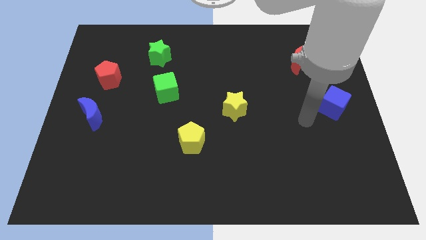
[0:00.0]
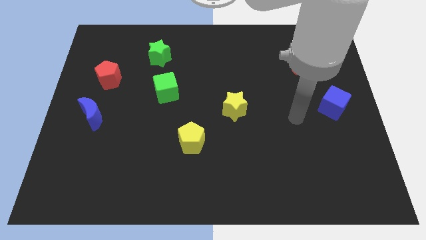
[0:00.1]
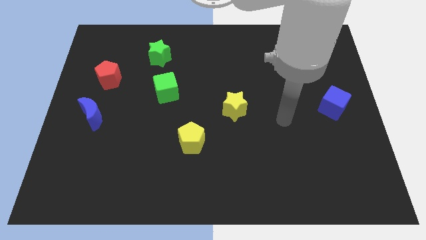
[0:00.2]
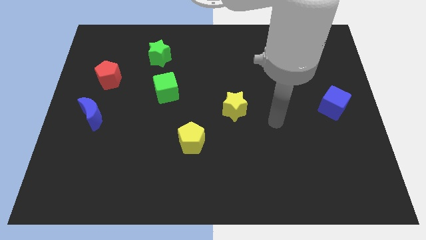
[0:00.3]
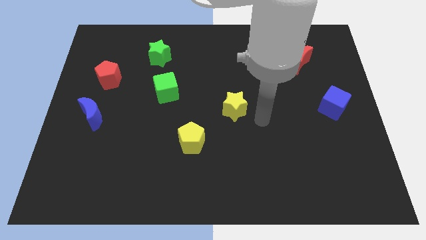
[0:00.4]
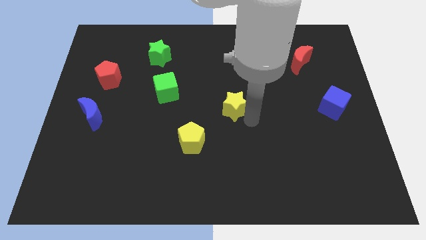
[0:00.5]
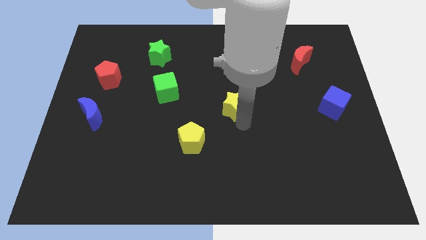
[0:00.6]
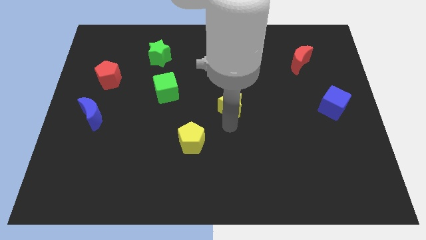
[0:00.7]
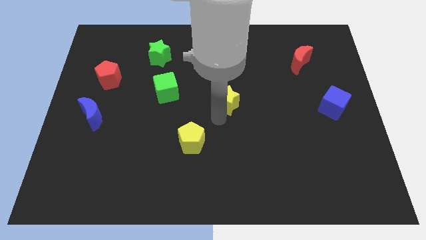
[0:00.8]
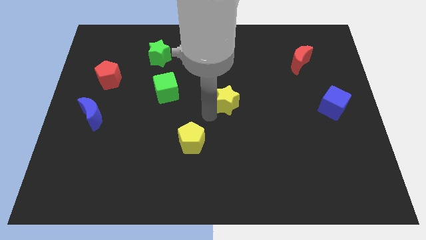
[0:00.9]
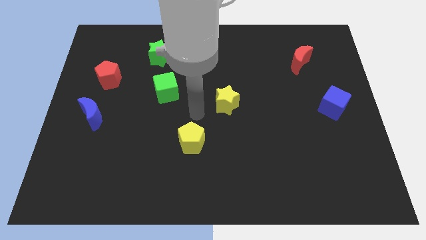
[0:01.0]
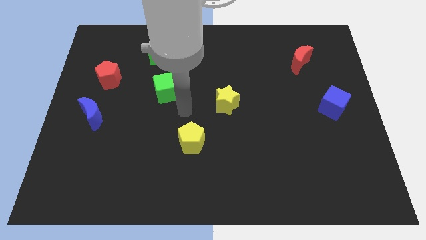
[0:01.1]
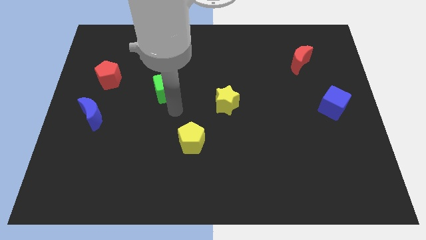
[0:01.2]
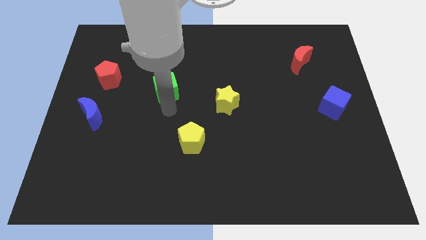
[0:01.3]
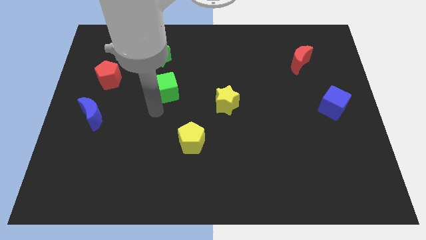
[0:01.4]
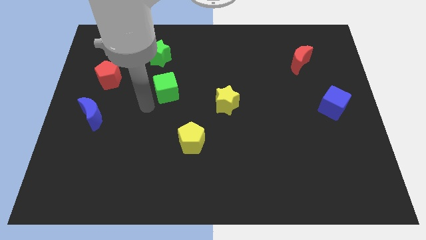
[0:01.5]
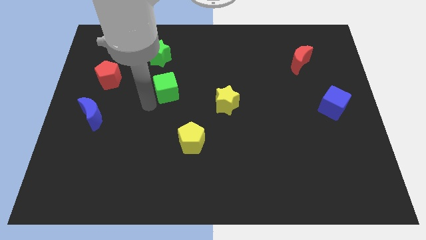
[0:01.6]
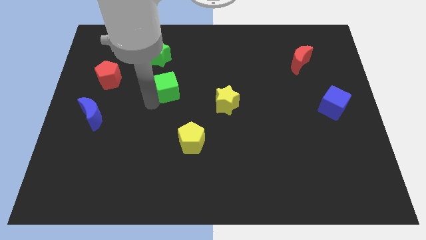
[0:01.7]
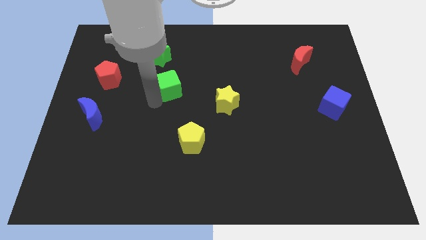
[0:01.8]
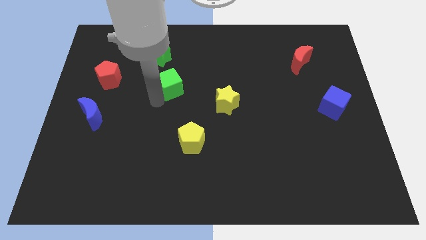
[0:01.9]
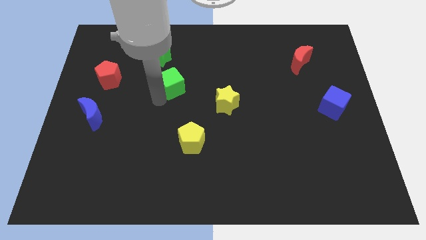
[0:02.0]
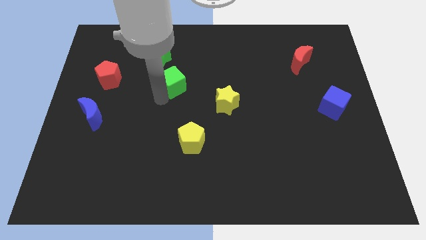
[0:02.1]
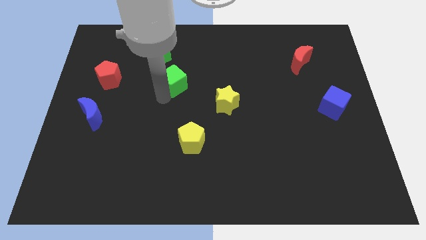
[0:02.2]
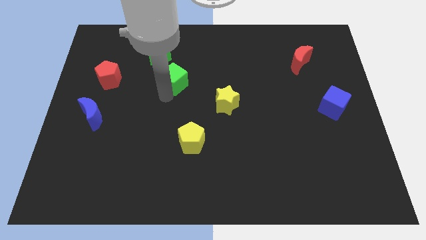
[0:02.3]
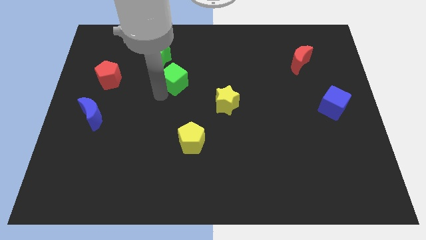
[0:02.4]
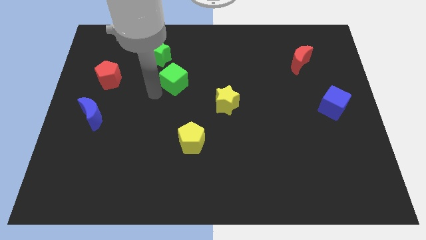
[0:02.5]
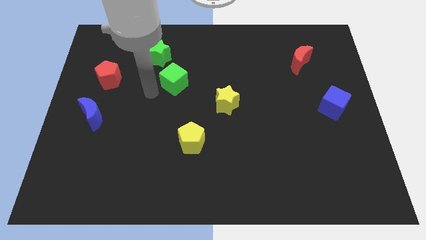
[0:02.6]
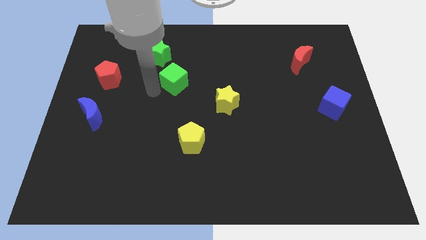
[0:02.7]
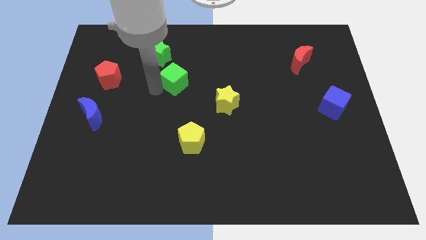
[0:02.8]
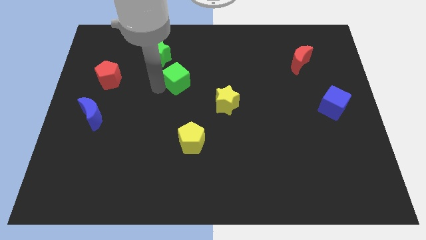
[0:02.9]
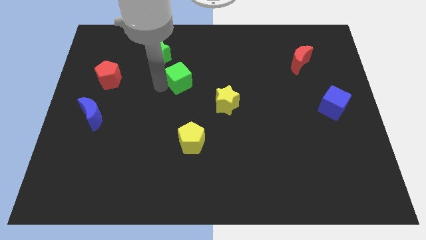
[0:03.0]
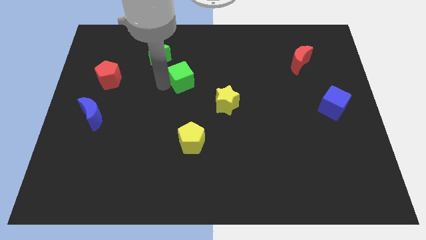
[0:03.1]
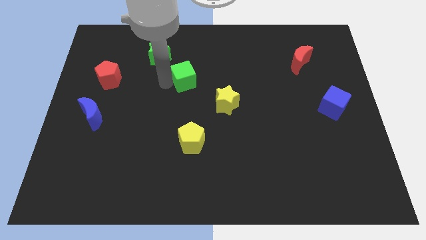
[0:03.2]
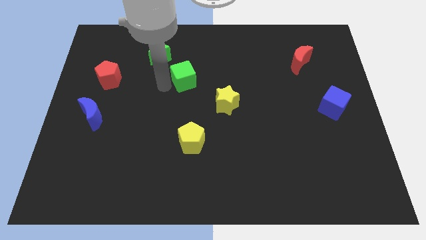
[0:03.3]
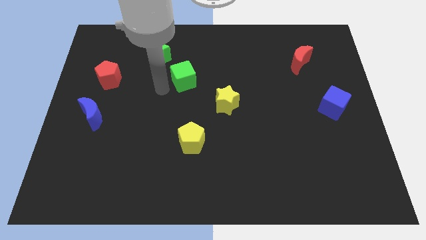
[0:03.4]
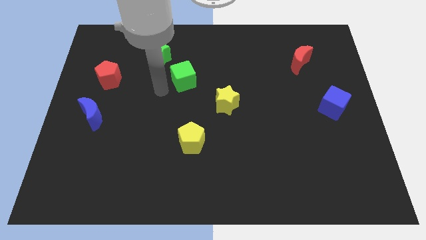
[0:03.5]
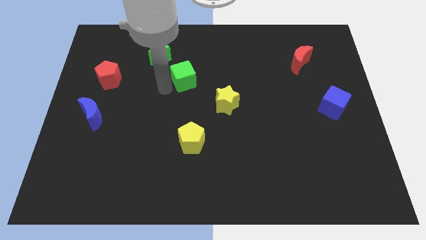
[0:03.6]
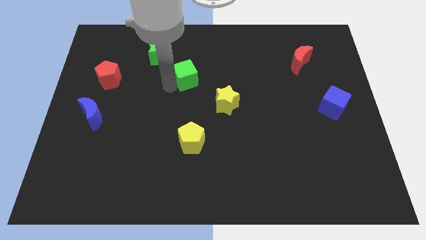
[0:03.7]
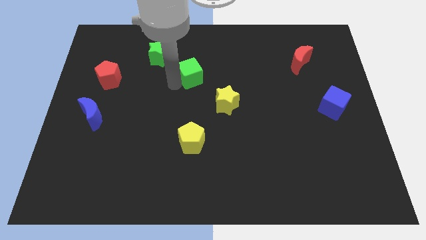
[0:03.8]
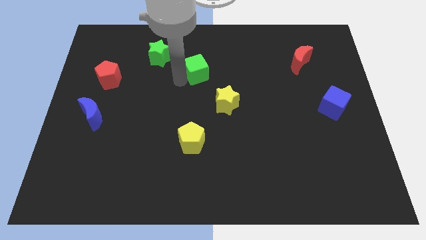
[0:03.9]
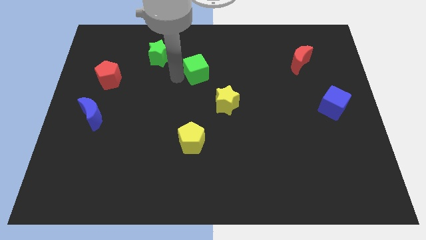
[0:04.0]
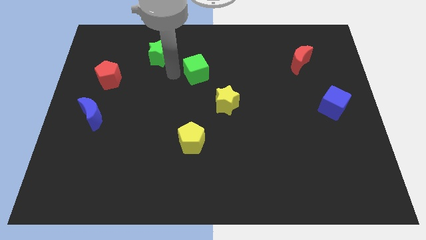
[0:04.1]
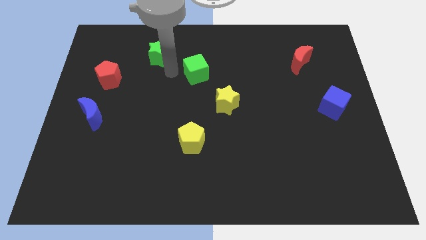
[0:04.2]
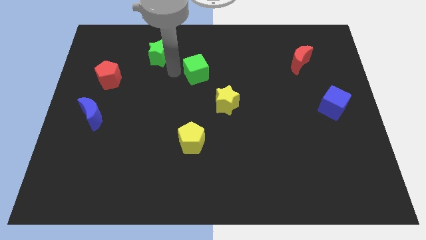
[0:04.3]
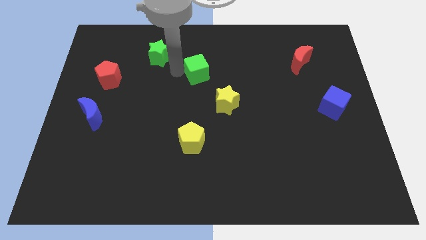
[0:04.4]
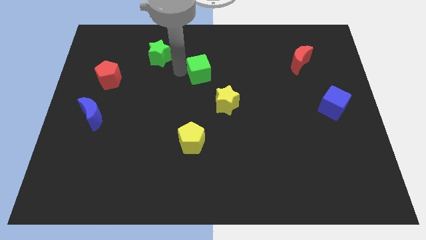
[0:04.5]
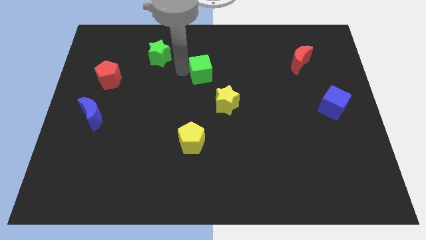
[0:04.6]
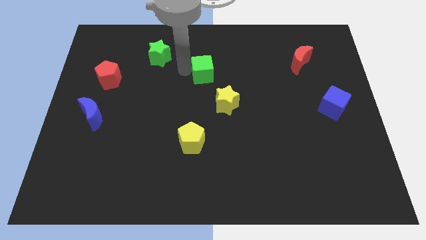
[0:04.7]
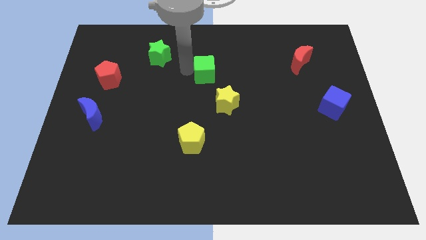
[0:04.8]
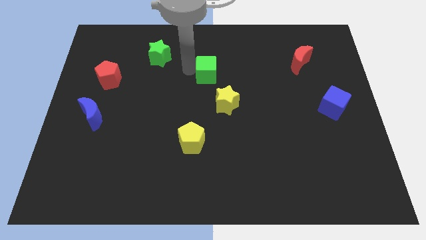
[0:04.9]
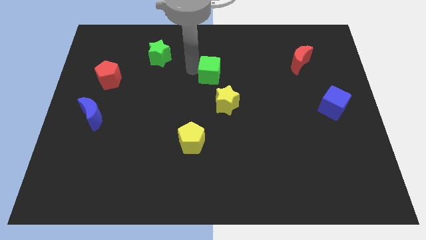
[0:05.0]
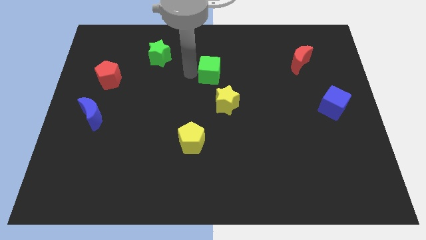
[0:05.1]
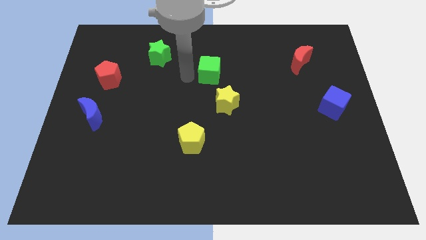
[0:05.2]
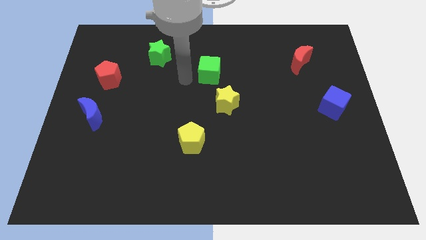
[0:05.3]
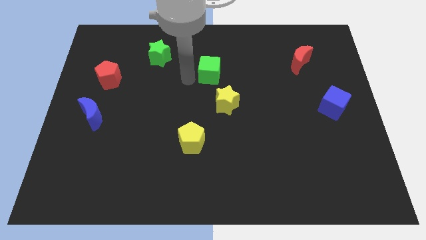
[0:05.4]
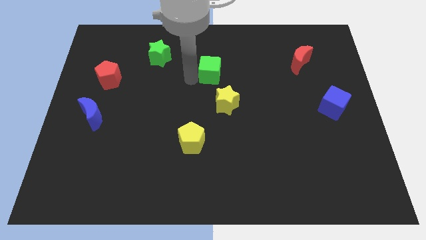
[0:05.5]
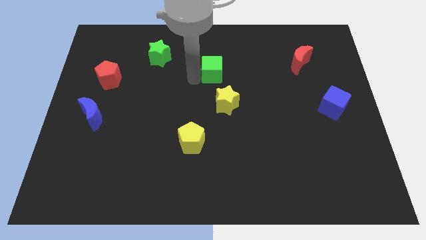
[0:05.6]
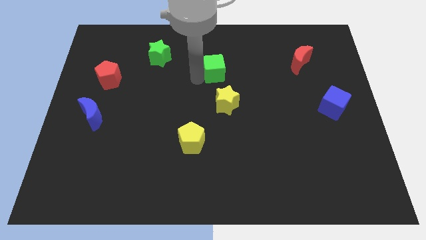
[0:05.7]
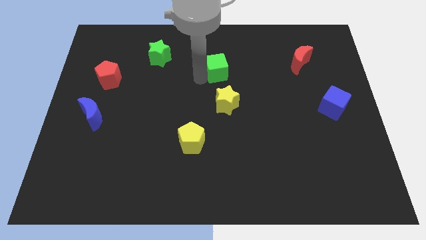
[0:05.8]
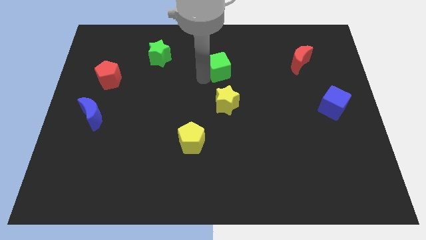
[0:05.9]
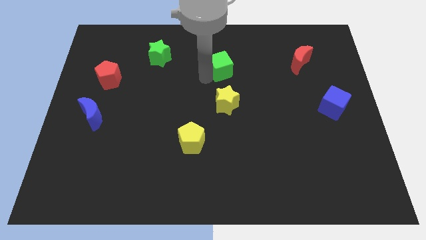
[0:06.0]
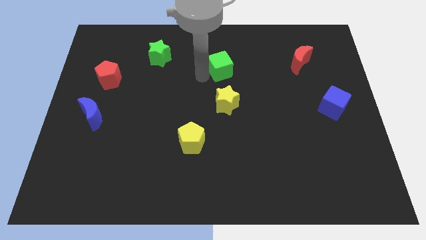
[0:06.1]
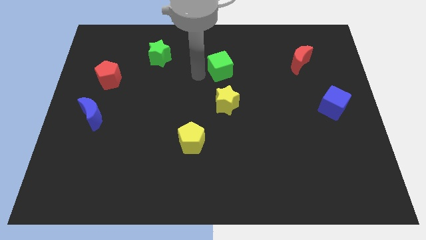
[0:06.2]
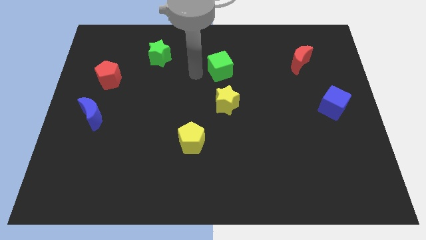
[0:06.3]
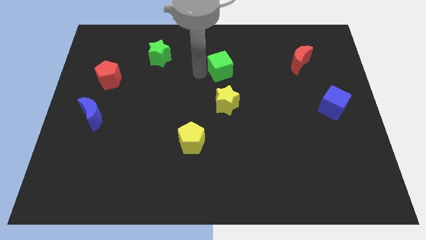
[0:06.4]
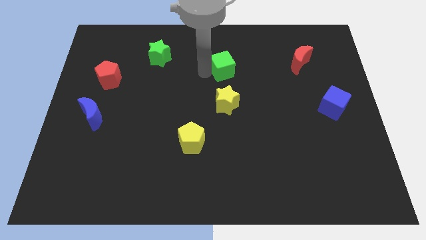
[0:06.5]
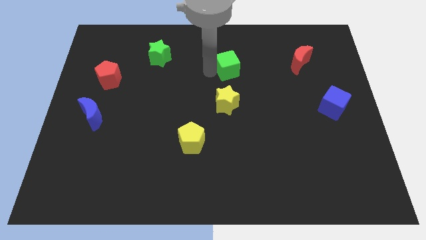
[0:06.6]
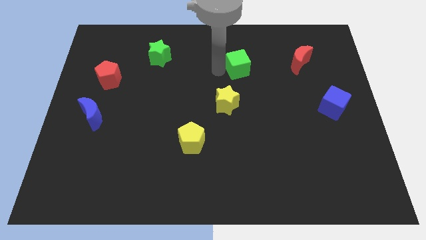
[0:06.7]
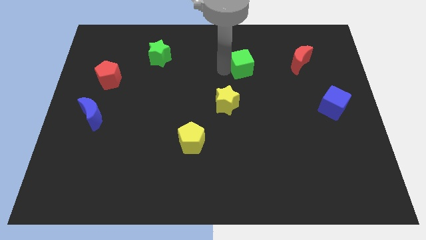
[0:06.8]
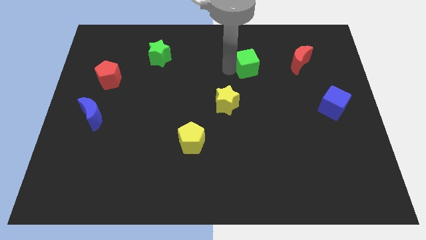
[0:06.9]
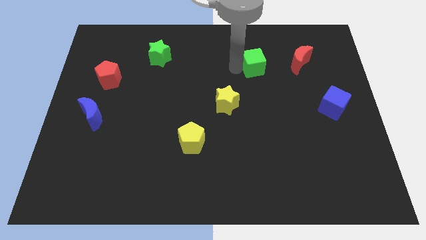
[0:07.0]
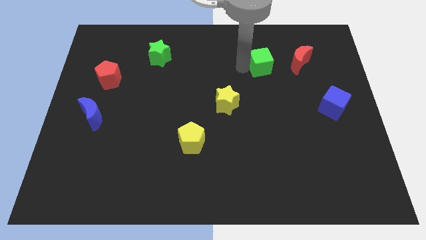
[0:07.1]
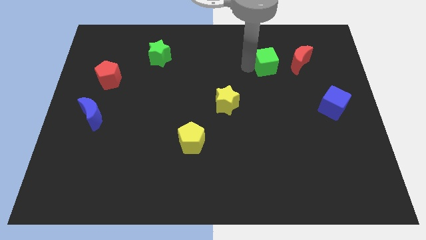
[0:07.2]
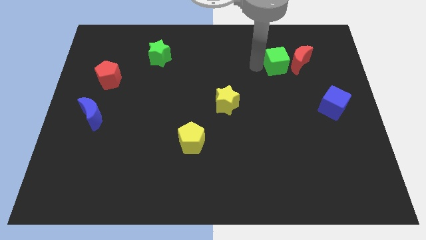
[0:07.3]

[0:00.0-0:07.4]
put the green cube towards the red moon
